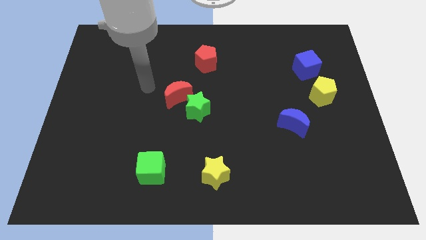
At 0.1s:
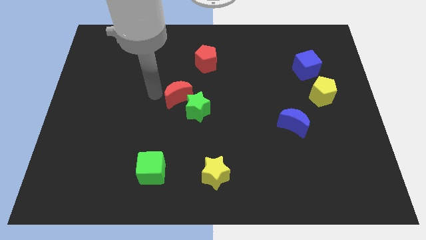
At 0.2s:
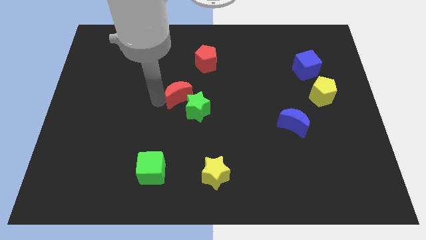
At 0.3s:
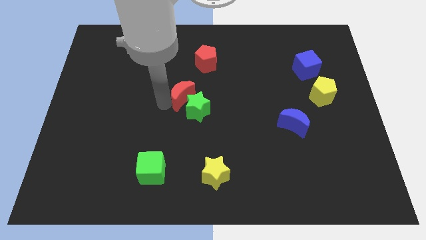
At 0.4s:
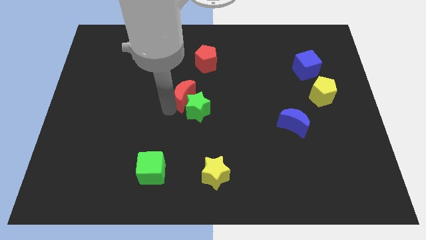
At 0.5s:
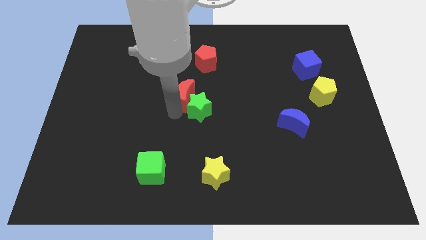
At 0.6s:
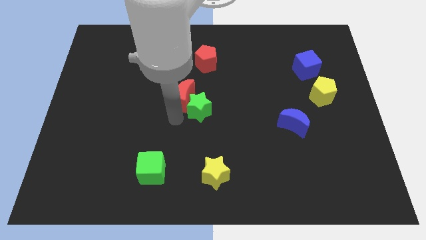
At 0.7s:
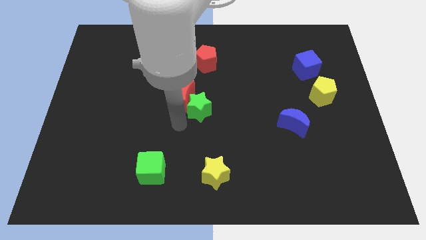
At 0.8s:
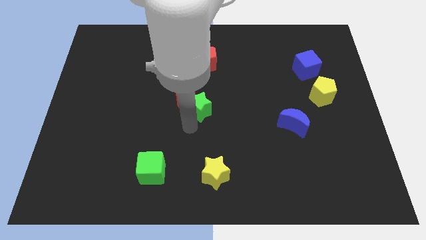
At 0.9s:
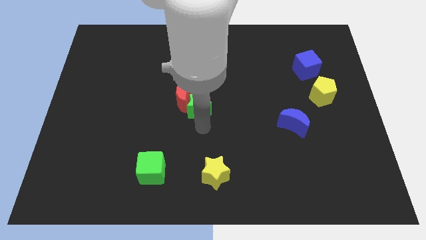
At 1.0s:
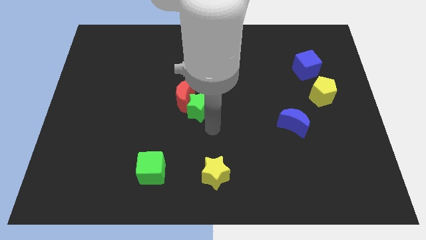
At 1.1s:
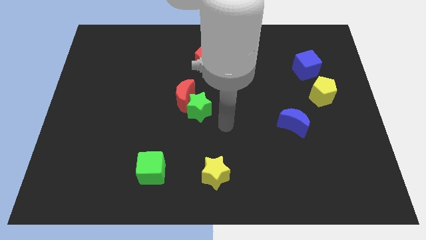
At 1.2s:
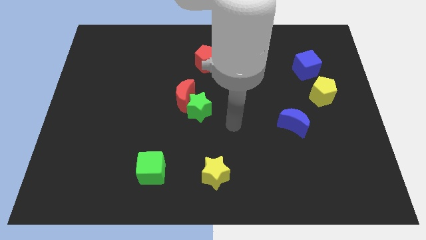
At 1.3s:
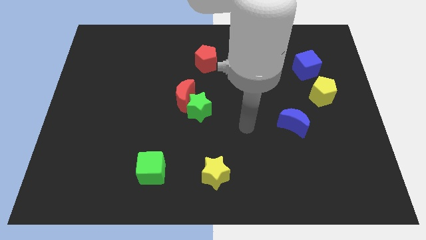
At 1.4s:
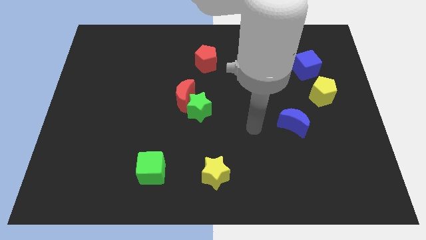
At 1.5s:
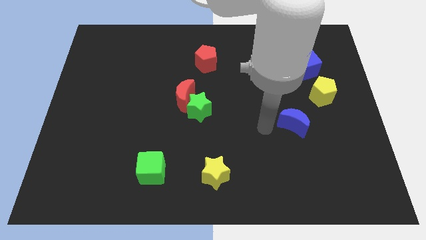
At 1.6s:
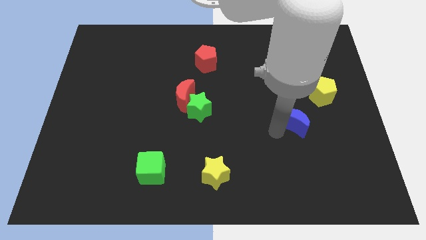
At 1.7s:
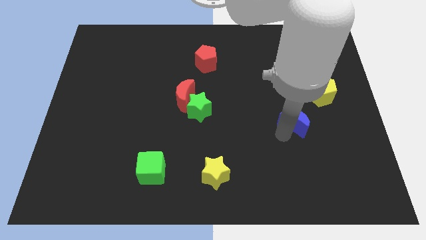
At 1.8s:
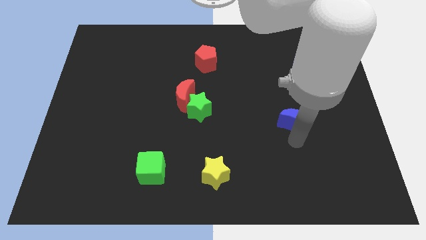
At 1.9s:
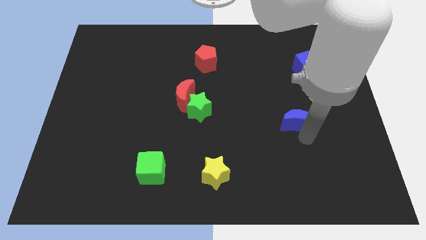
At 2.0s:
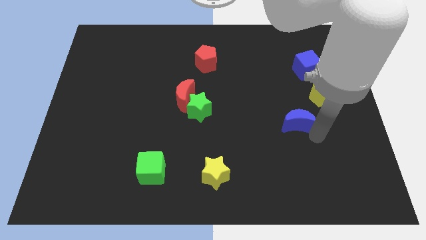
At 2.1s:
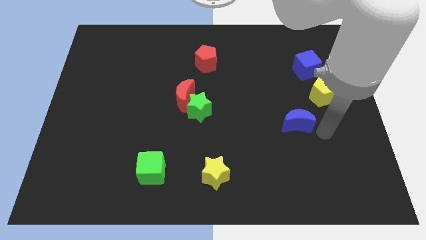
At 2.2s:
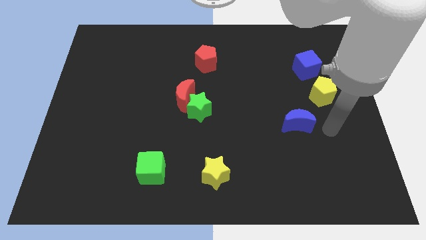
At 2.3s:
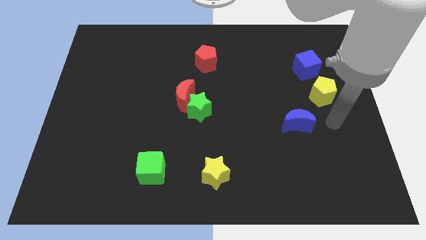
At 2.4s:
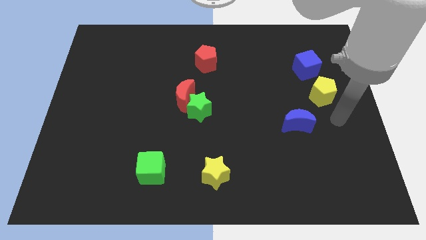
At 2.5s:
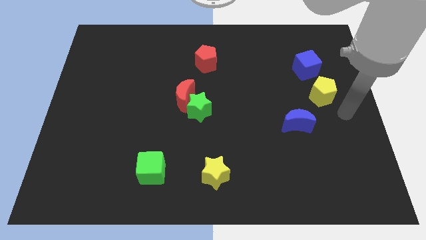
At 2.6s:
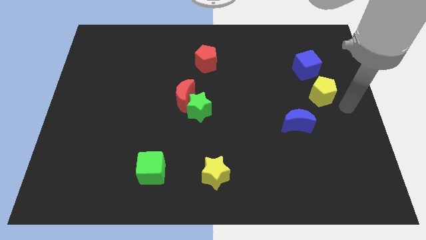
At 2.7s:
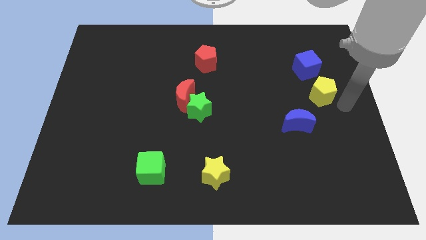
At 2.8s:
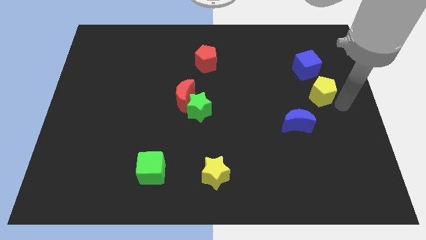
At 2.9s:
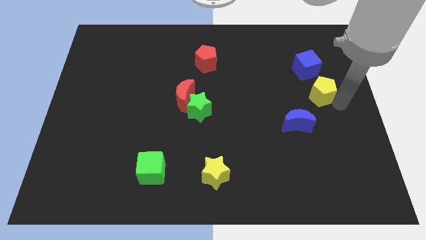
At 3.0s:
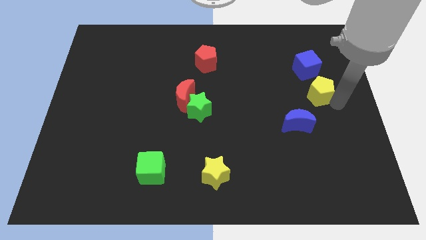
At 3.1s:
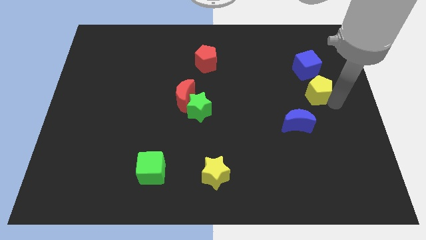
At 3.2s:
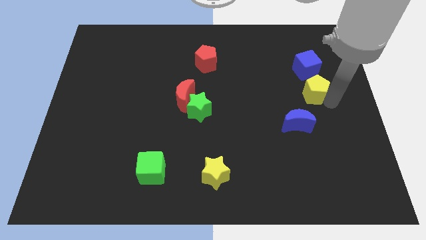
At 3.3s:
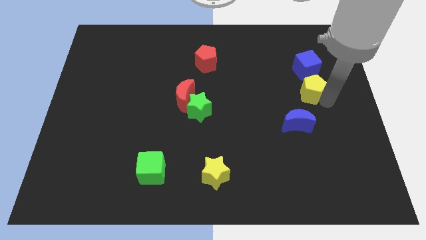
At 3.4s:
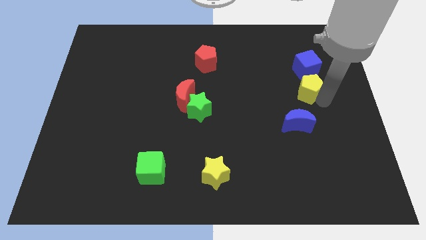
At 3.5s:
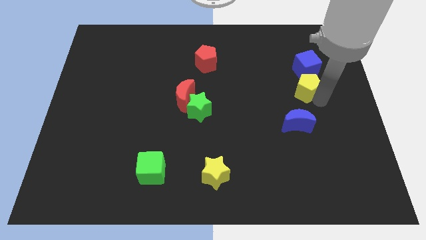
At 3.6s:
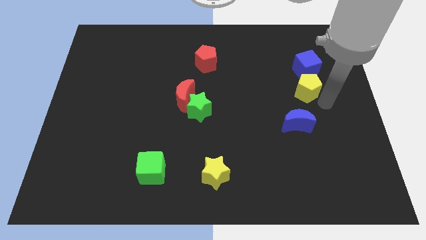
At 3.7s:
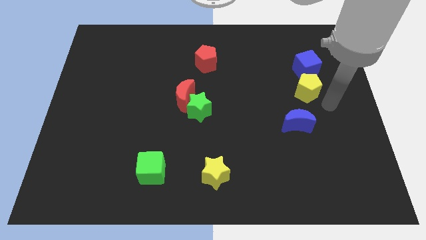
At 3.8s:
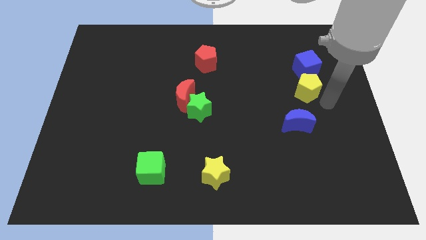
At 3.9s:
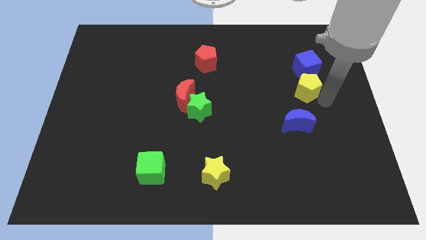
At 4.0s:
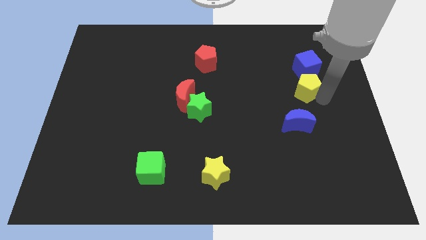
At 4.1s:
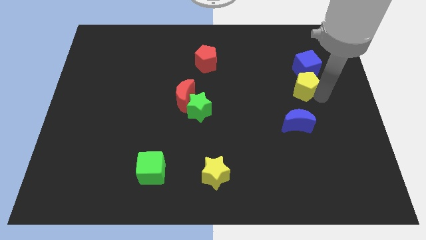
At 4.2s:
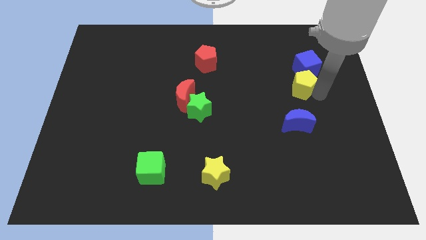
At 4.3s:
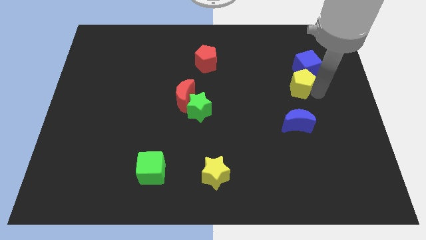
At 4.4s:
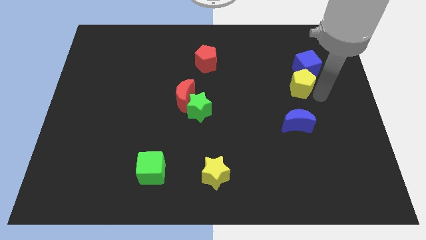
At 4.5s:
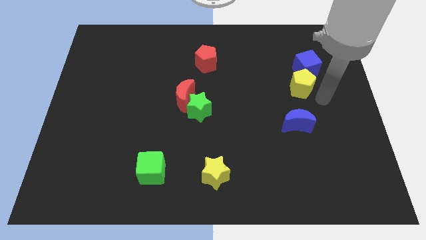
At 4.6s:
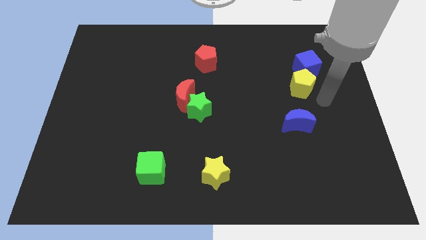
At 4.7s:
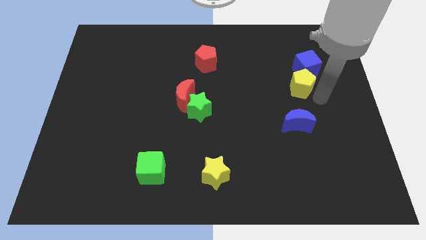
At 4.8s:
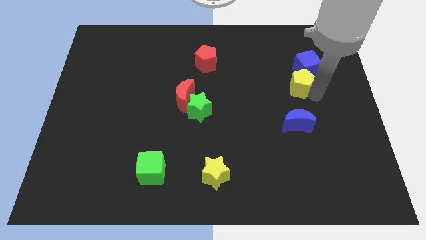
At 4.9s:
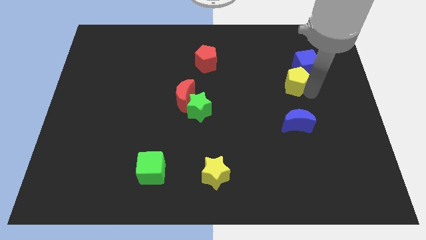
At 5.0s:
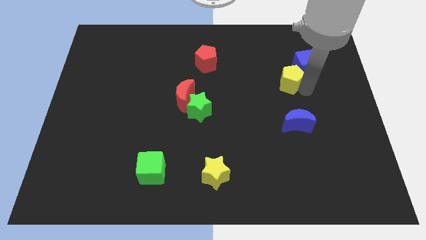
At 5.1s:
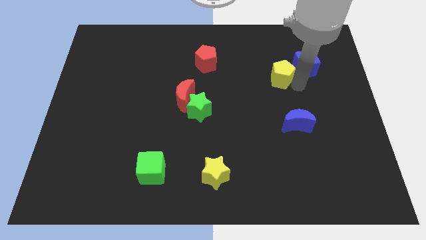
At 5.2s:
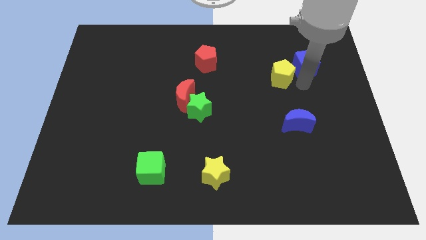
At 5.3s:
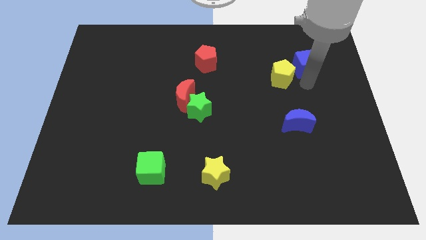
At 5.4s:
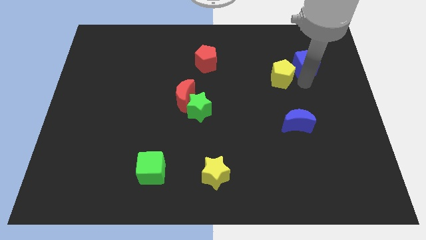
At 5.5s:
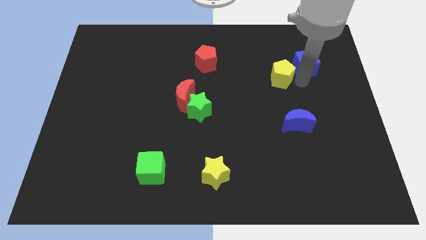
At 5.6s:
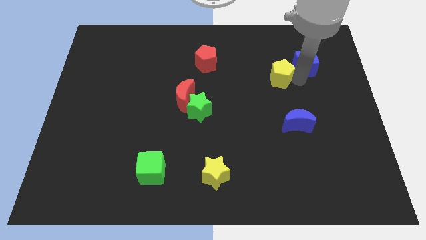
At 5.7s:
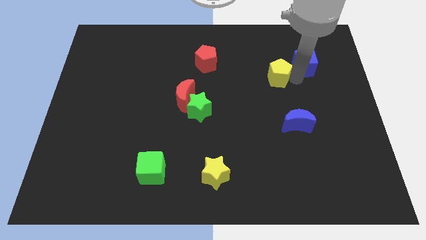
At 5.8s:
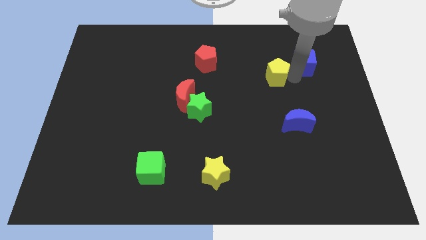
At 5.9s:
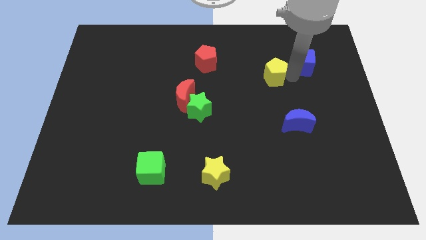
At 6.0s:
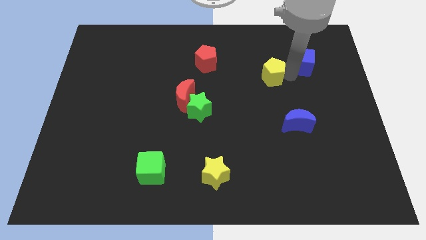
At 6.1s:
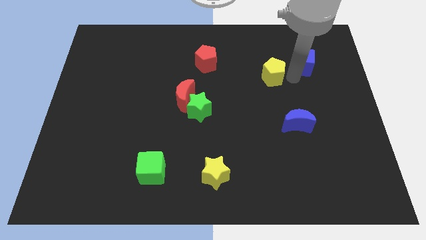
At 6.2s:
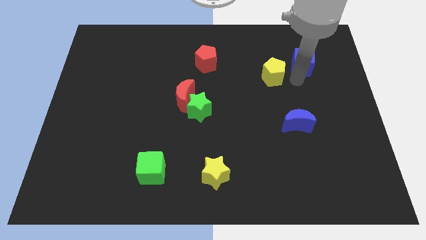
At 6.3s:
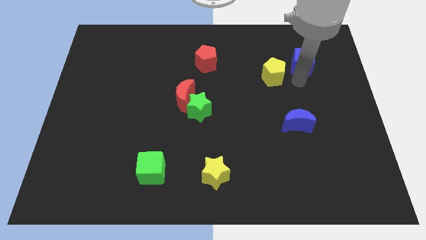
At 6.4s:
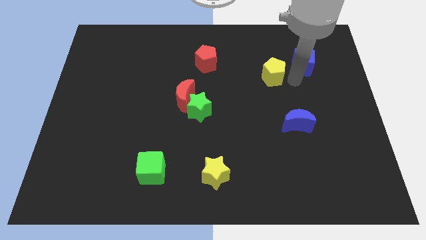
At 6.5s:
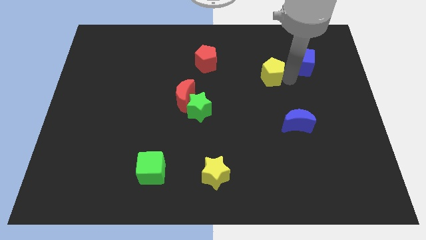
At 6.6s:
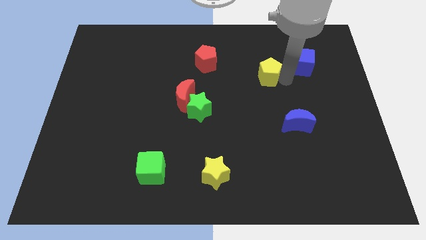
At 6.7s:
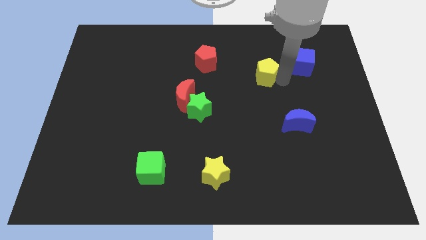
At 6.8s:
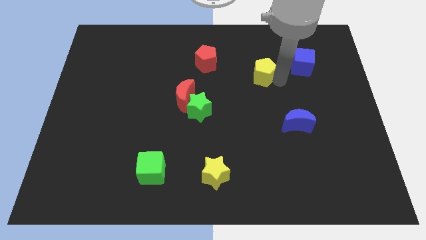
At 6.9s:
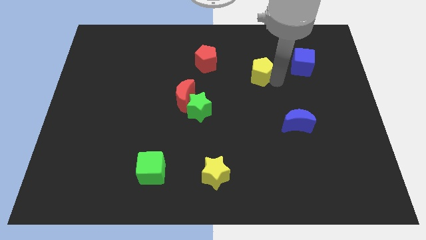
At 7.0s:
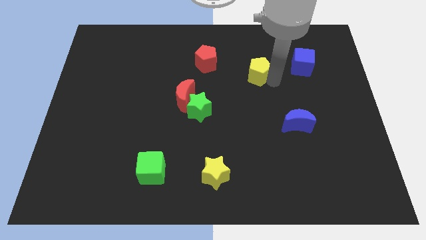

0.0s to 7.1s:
push the yellow pentagon just right of the red pentagon
